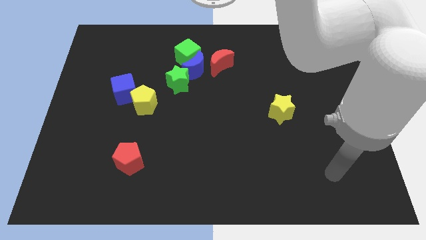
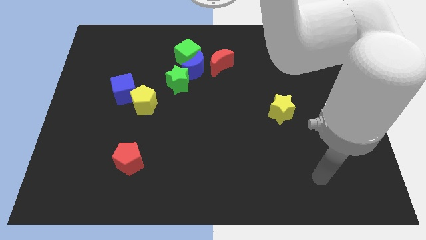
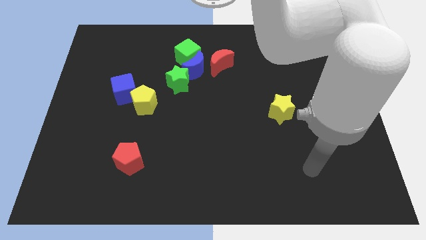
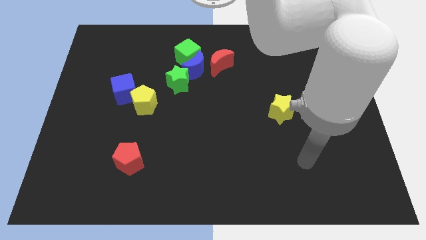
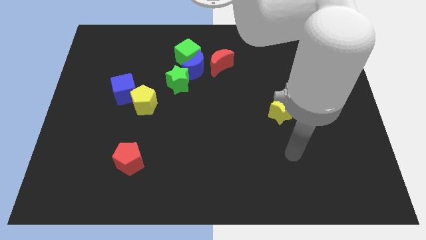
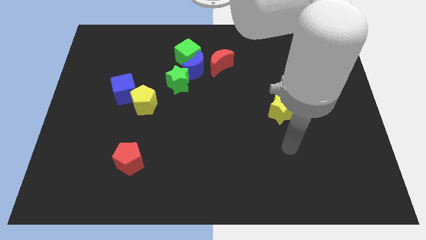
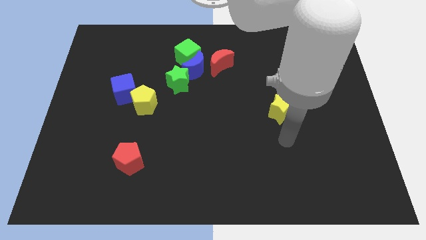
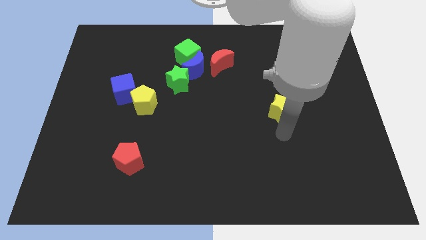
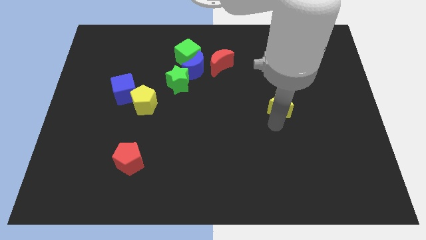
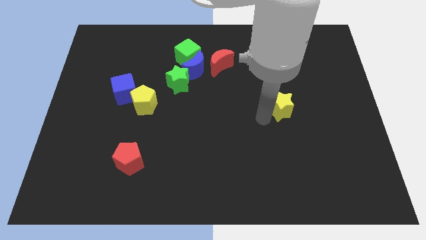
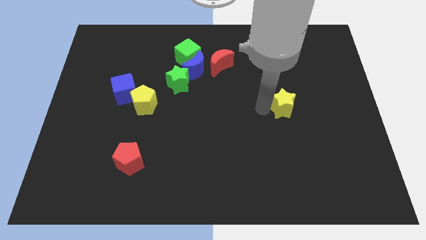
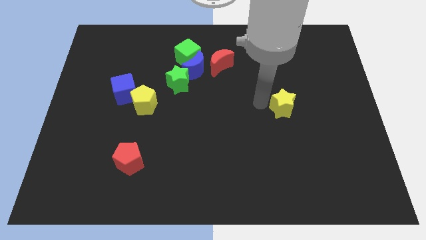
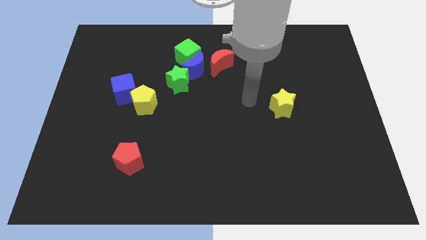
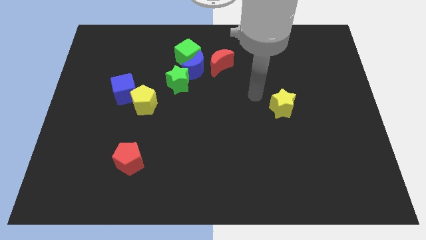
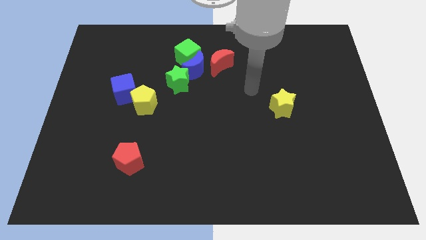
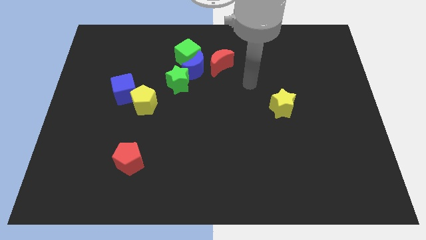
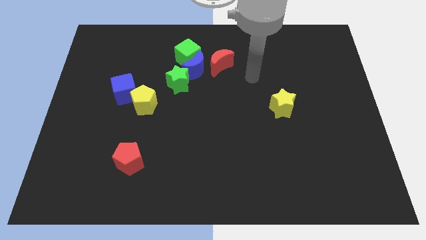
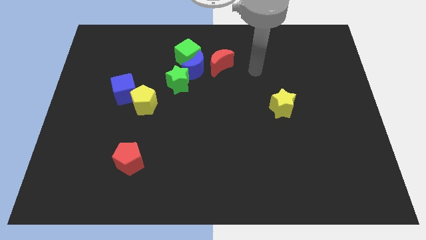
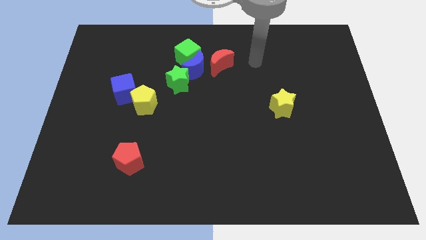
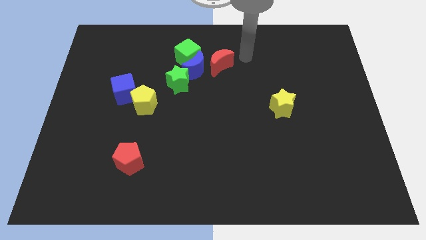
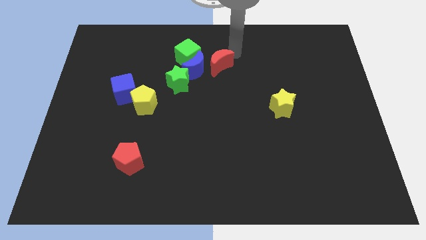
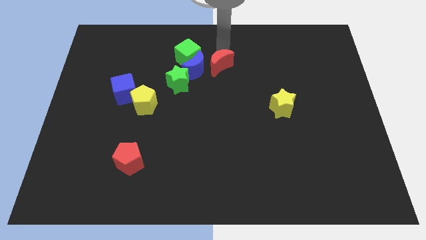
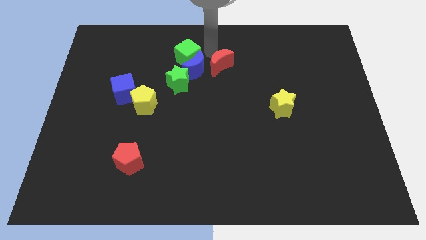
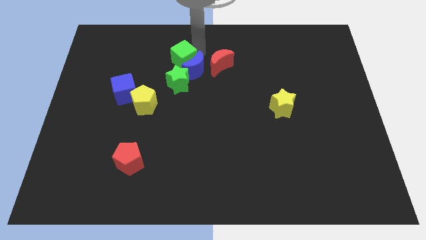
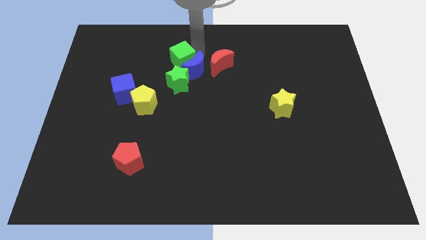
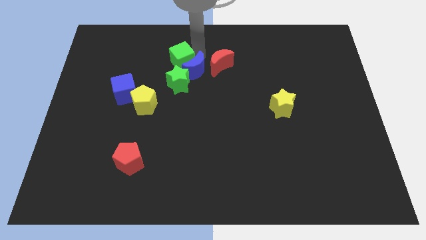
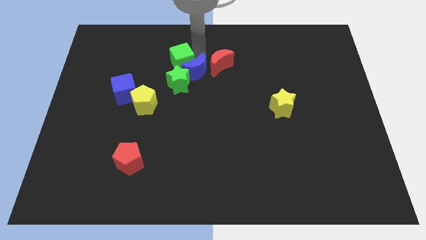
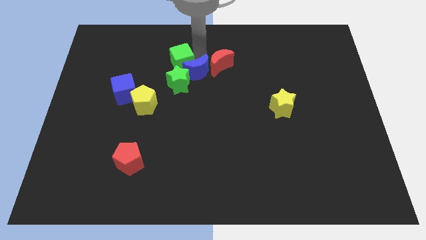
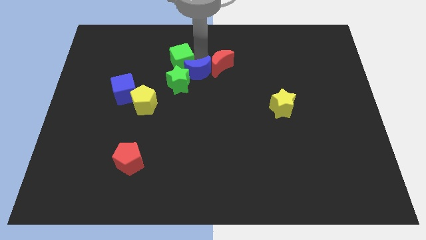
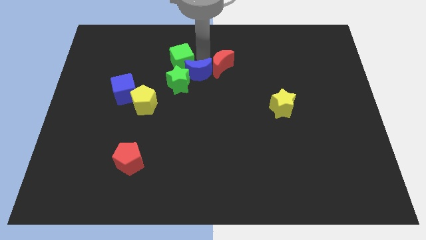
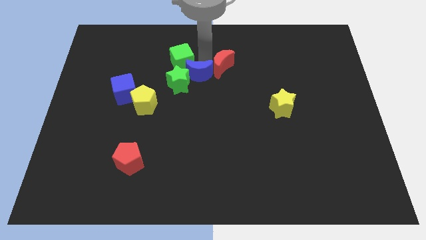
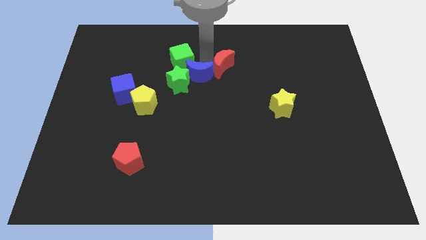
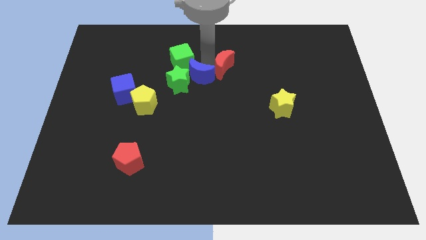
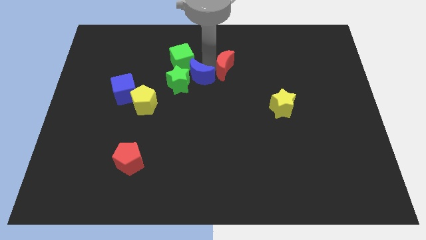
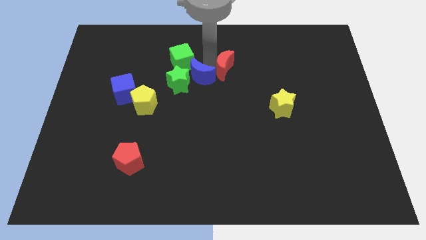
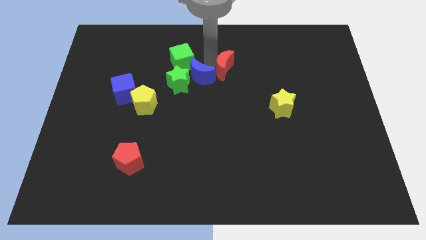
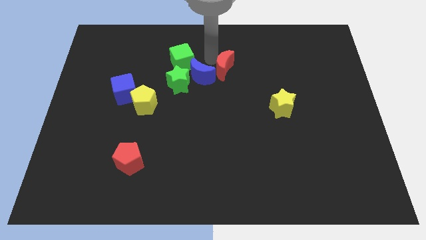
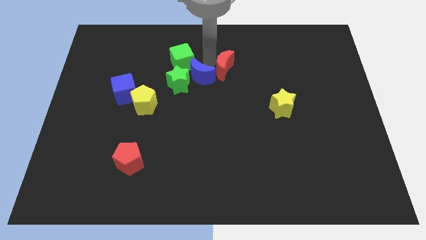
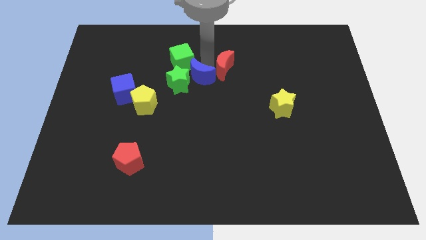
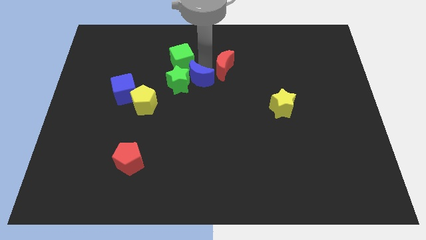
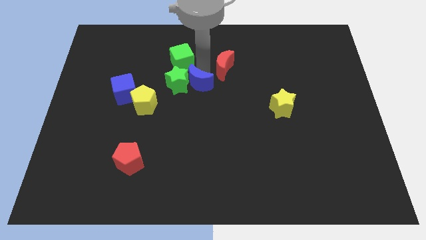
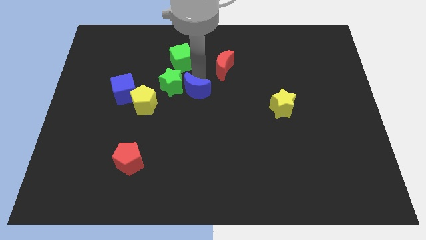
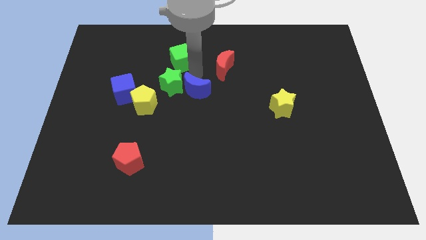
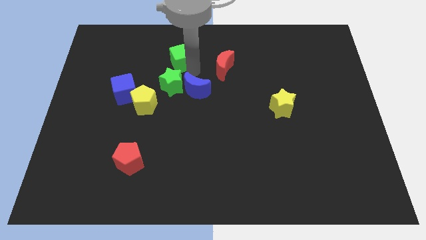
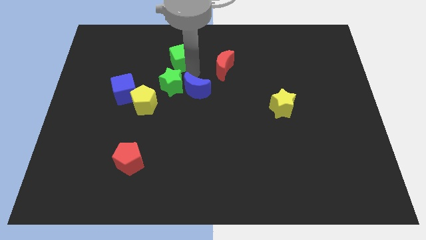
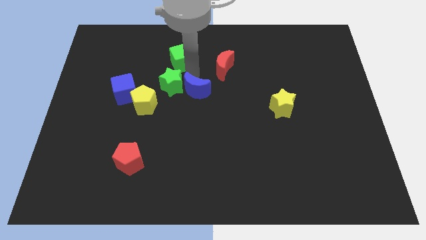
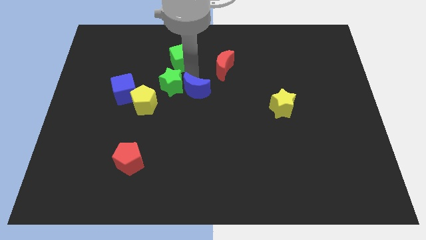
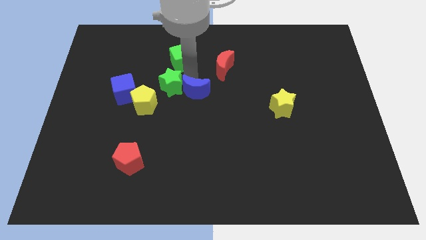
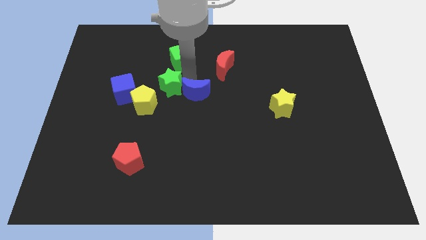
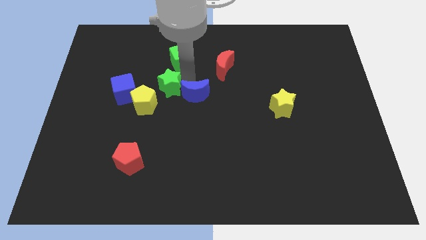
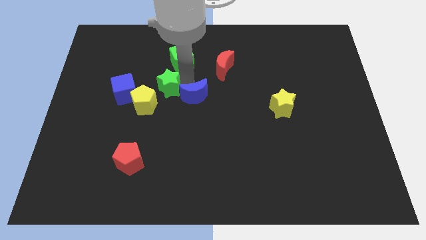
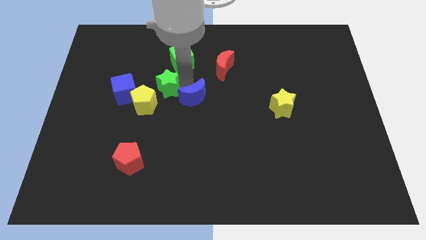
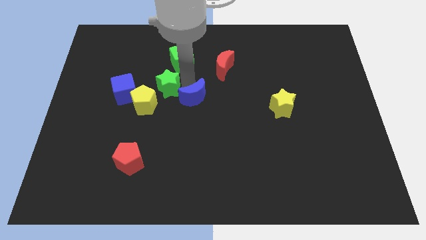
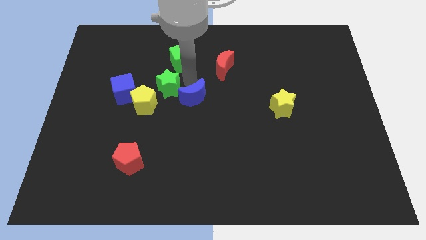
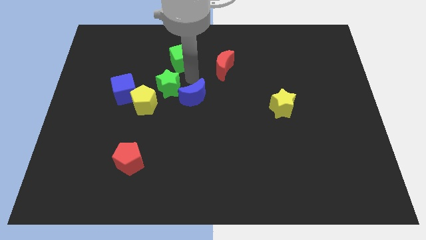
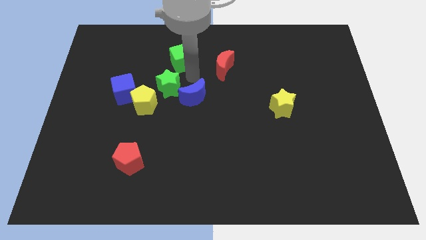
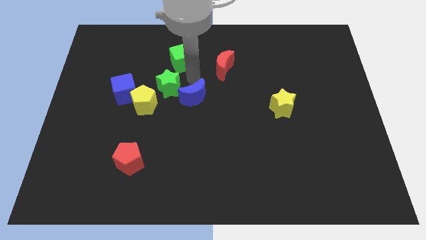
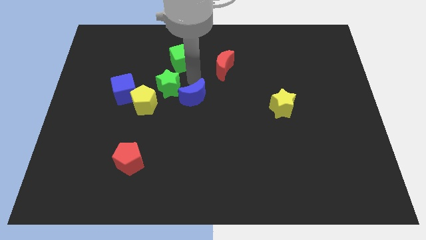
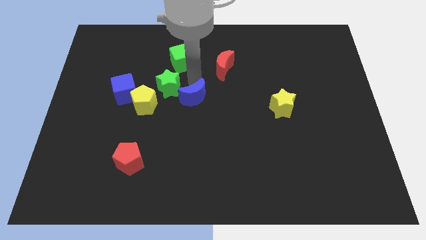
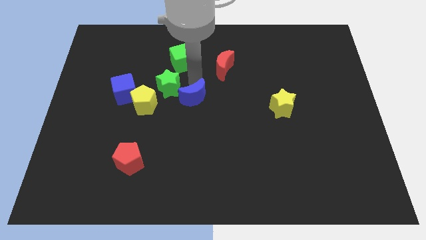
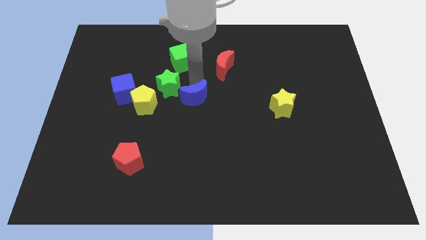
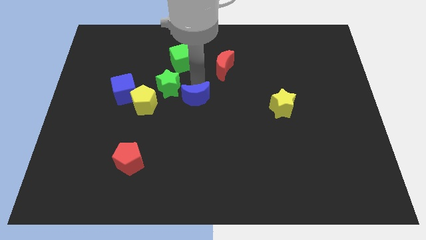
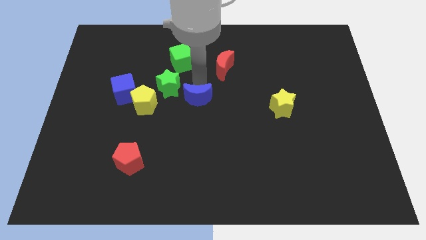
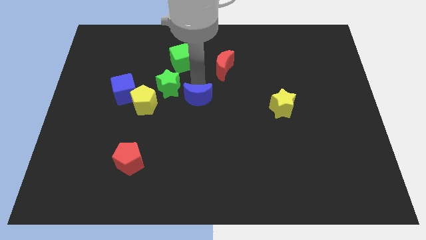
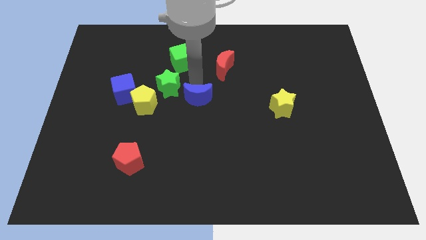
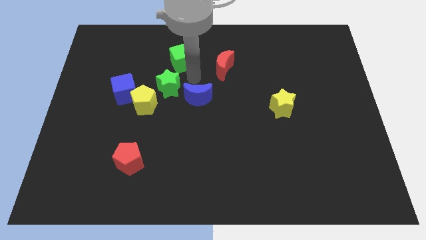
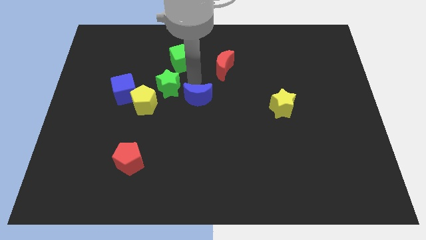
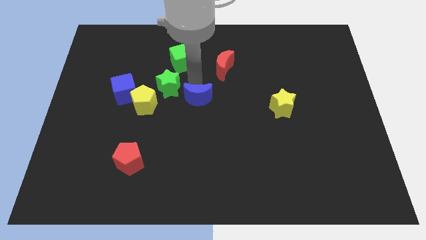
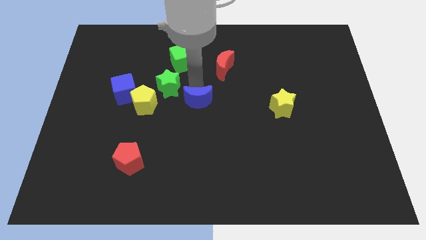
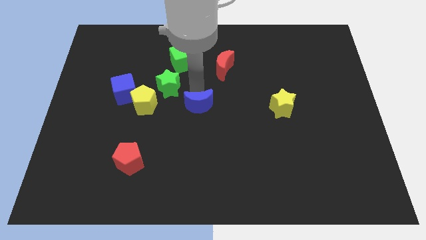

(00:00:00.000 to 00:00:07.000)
separate the blue moon from the green cube, green star, and red moon

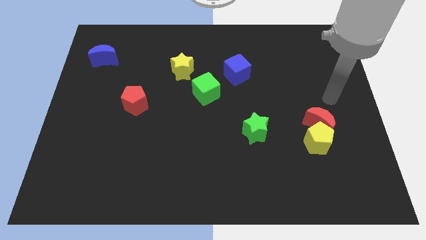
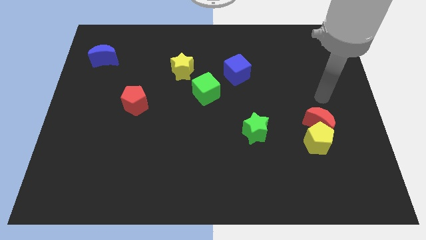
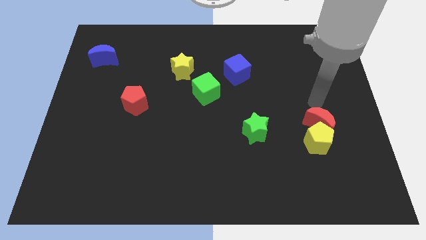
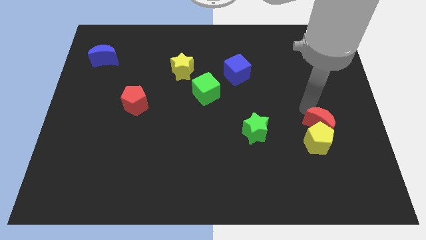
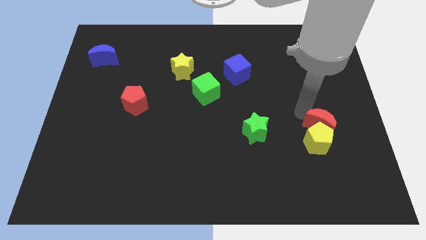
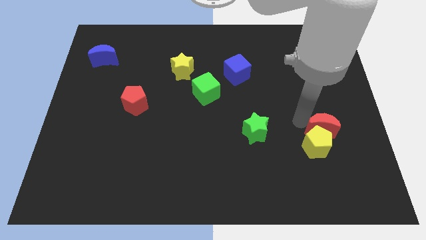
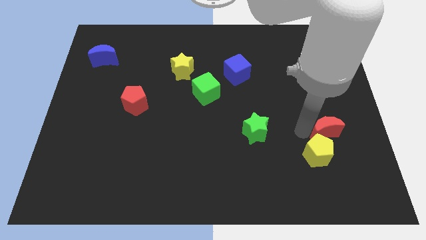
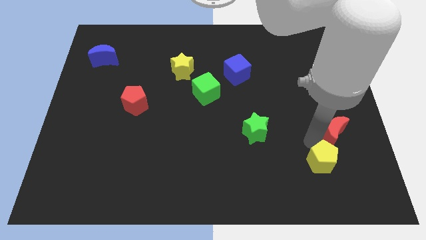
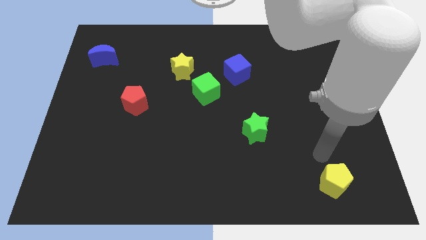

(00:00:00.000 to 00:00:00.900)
pull the red moon apart from the yellow pentagon

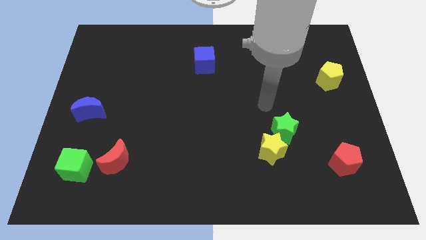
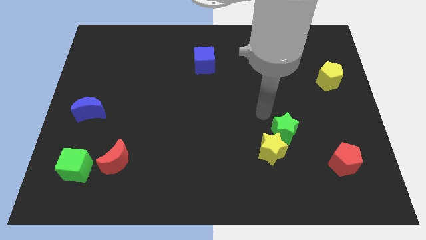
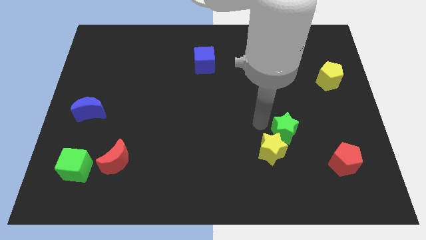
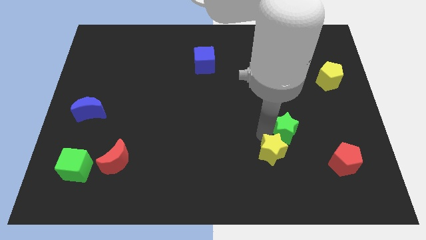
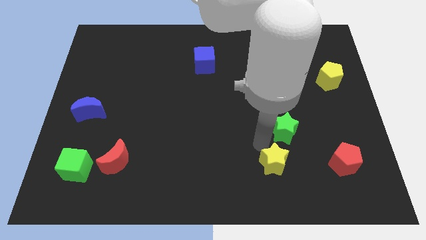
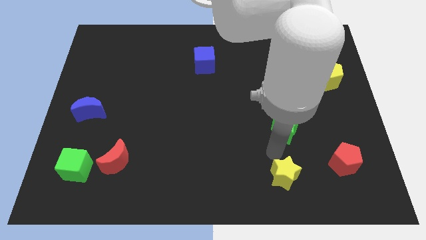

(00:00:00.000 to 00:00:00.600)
move the green star away from the yellow star

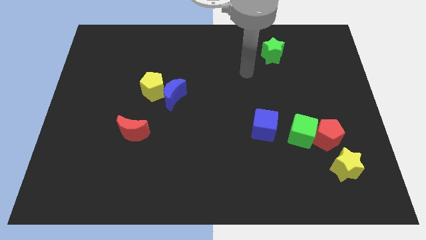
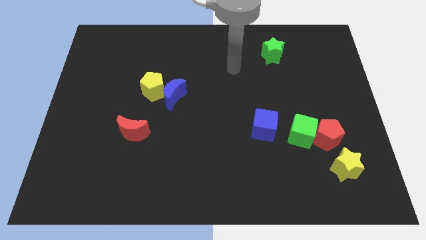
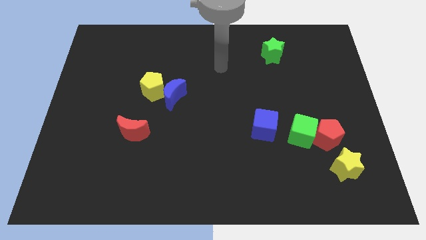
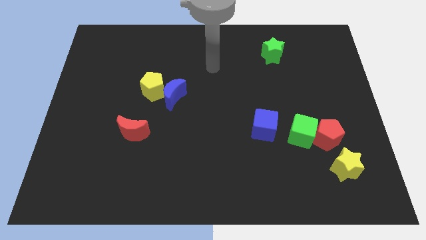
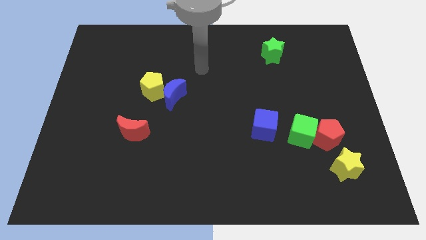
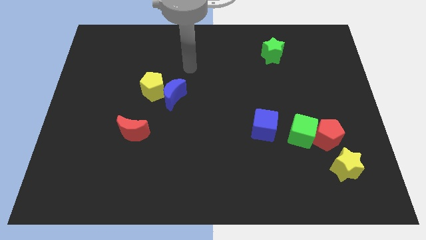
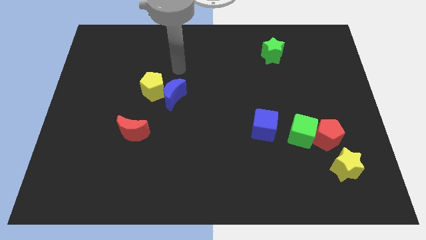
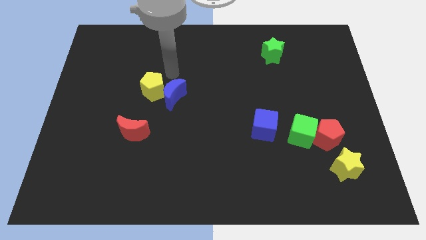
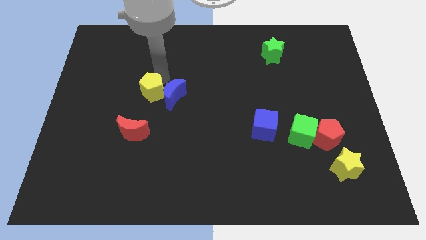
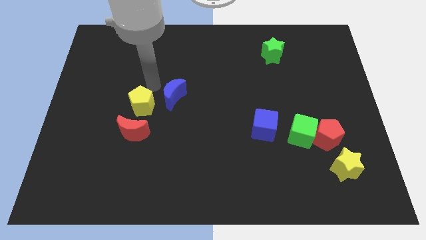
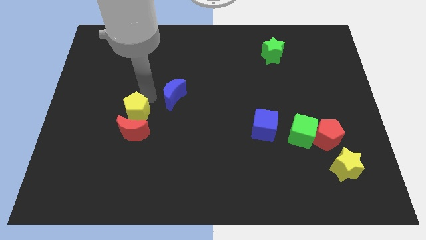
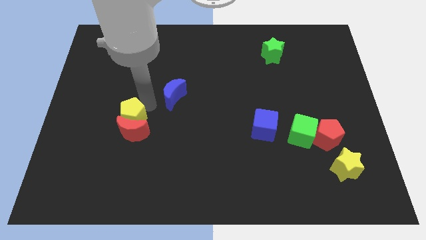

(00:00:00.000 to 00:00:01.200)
move the blue moon away from the yellow pentagon
